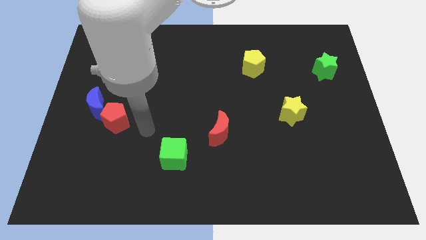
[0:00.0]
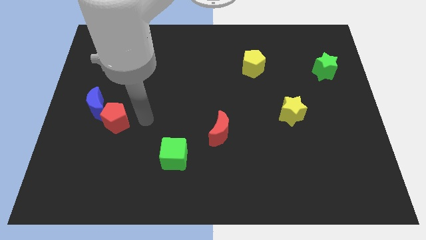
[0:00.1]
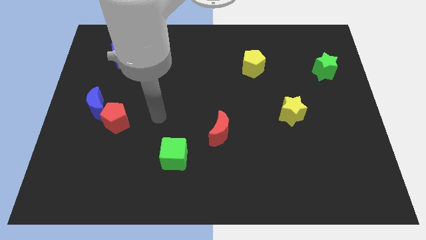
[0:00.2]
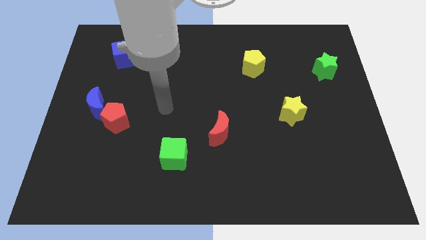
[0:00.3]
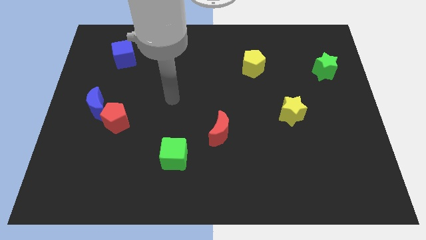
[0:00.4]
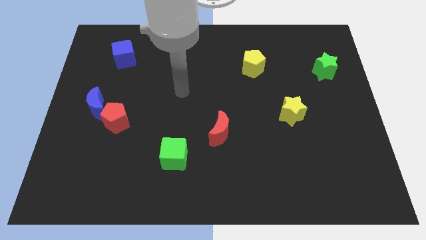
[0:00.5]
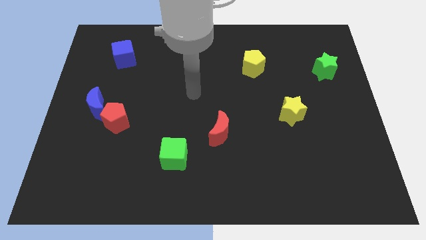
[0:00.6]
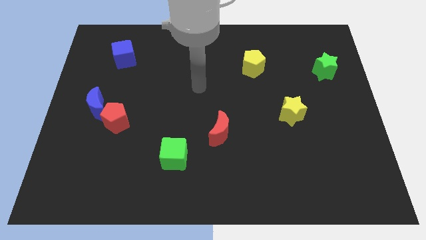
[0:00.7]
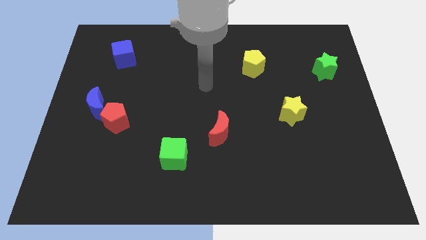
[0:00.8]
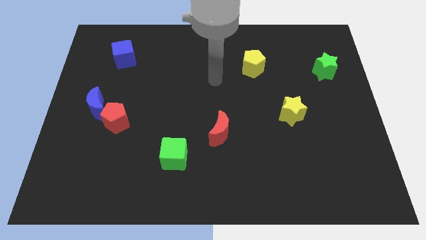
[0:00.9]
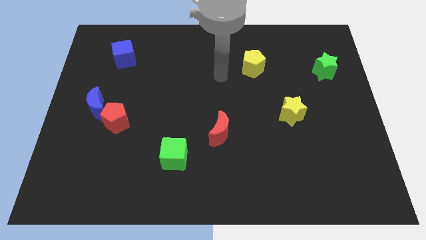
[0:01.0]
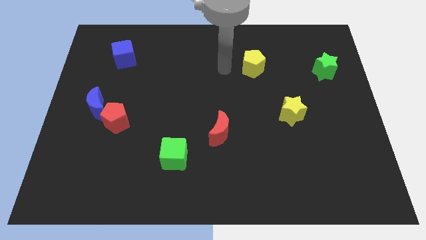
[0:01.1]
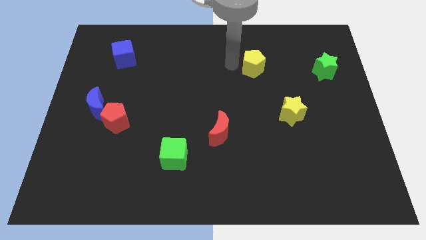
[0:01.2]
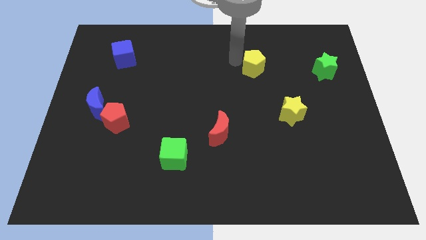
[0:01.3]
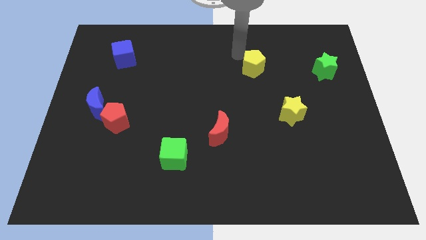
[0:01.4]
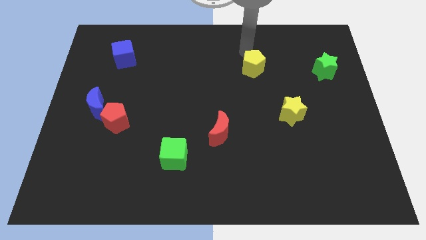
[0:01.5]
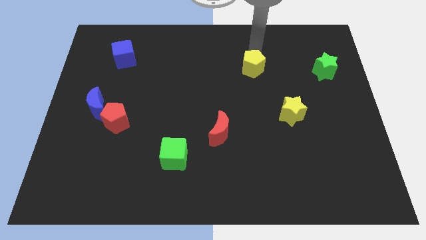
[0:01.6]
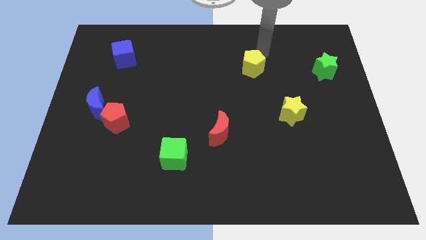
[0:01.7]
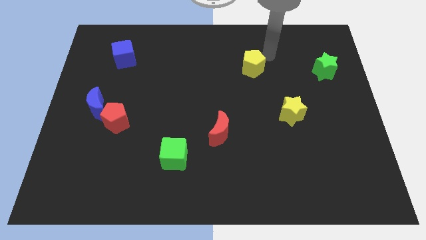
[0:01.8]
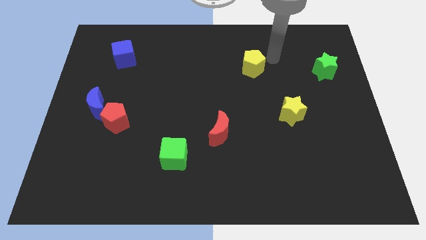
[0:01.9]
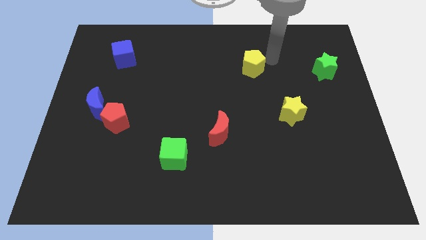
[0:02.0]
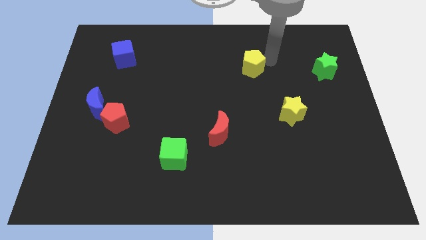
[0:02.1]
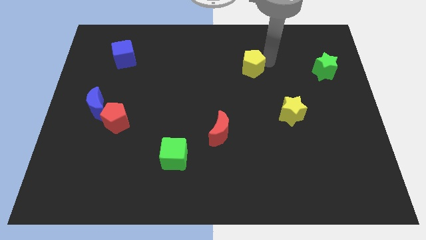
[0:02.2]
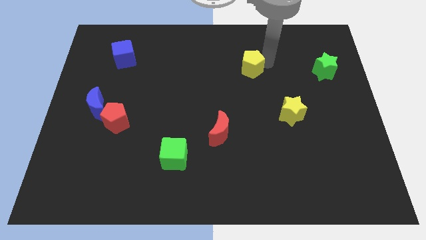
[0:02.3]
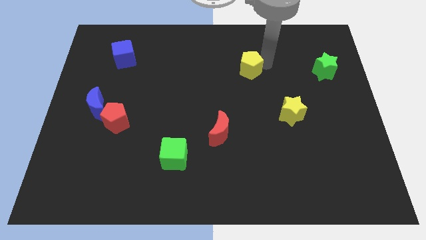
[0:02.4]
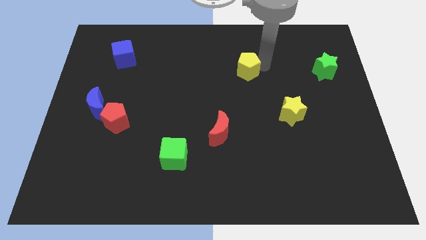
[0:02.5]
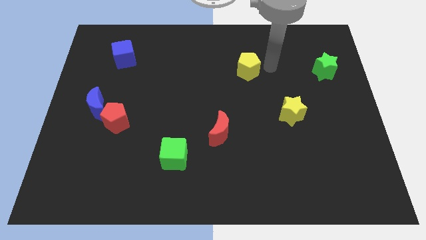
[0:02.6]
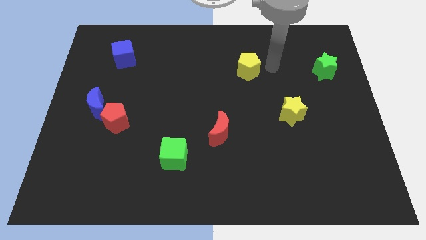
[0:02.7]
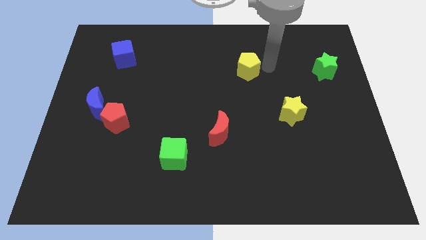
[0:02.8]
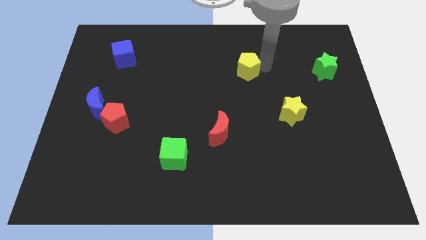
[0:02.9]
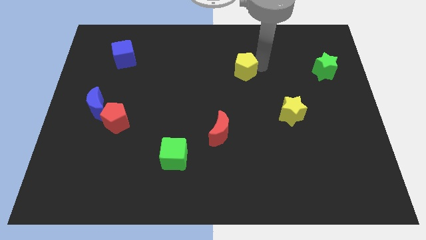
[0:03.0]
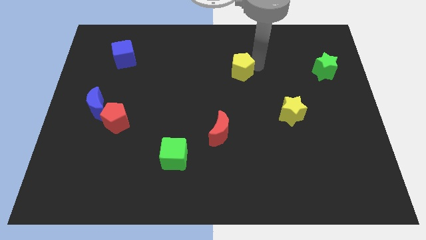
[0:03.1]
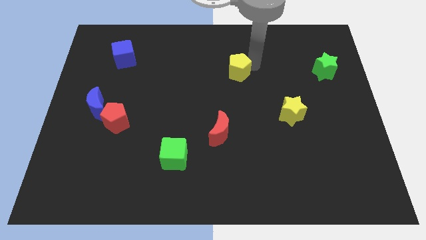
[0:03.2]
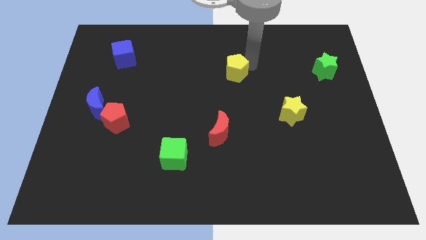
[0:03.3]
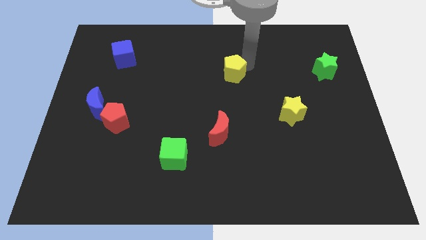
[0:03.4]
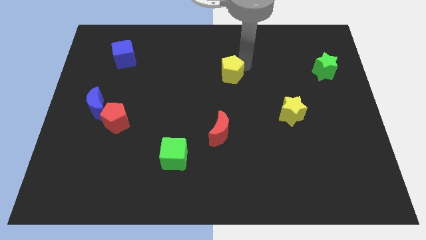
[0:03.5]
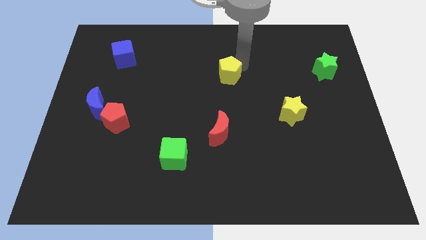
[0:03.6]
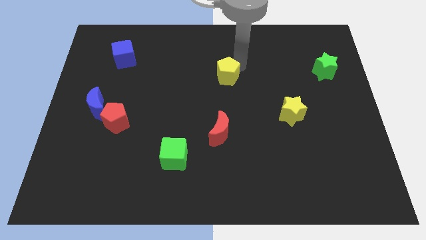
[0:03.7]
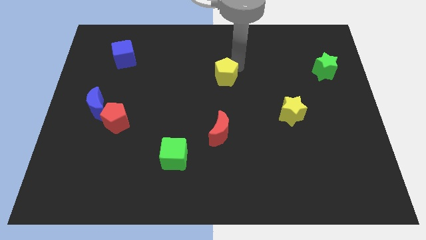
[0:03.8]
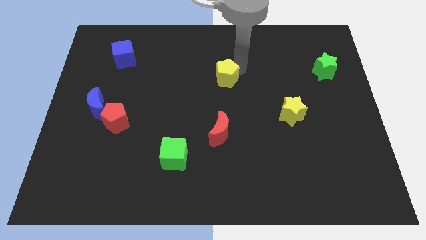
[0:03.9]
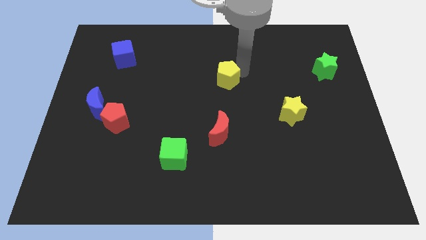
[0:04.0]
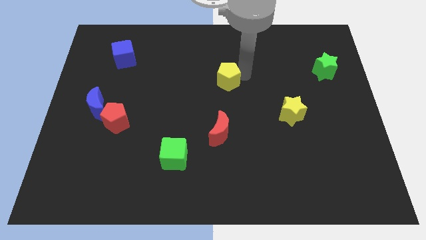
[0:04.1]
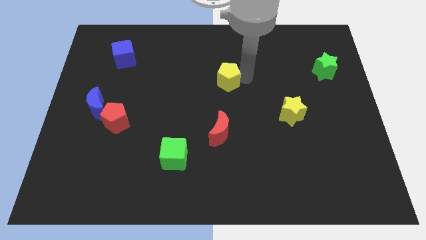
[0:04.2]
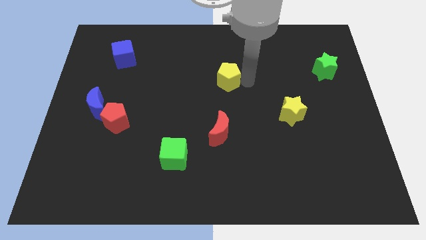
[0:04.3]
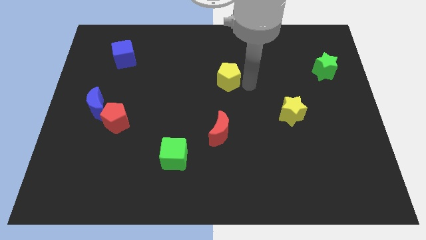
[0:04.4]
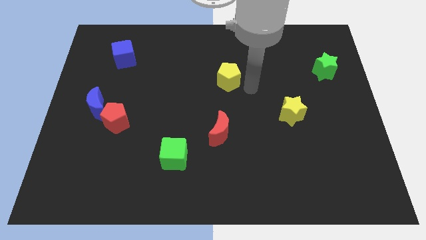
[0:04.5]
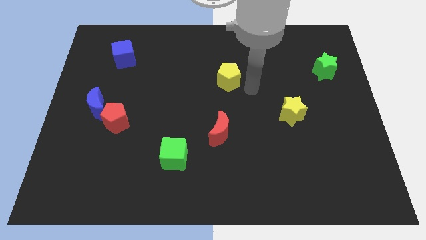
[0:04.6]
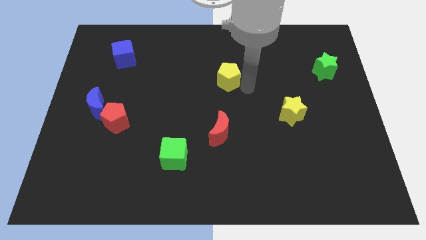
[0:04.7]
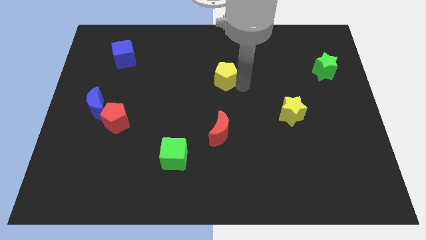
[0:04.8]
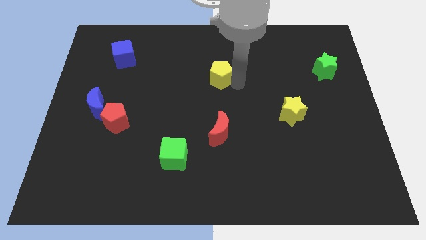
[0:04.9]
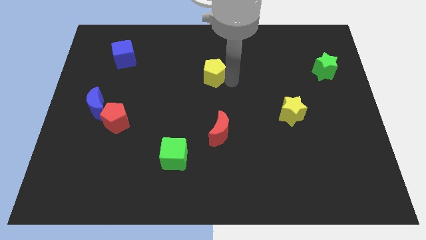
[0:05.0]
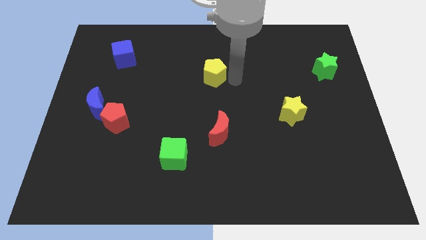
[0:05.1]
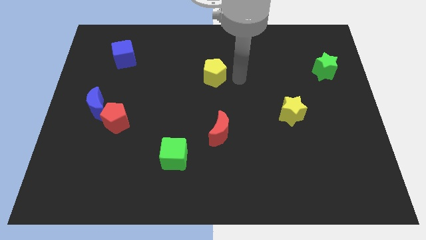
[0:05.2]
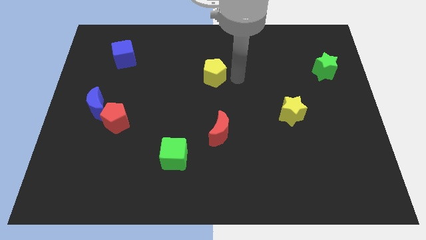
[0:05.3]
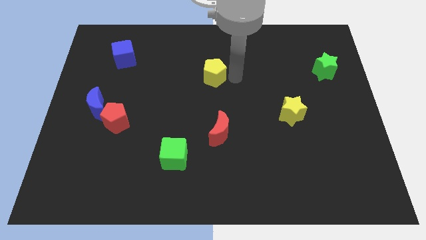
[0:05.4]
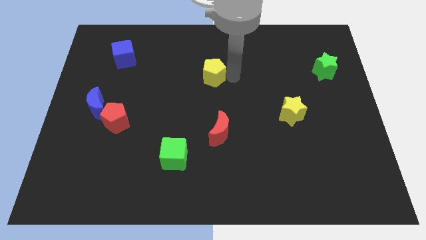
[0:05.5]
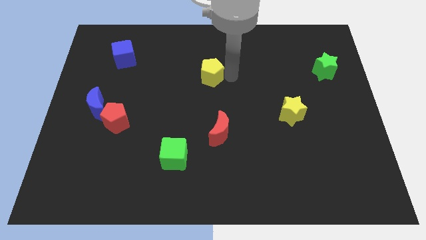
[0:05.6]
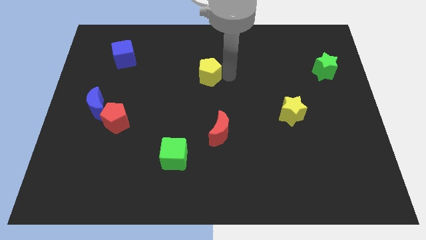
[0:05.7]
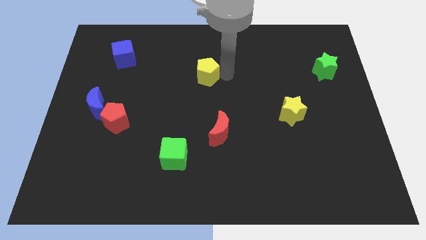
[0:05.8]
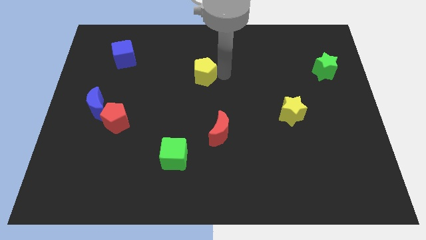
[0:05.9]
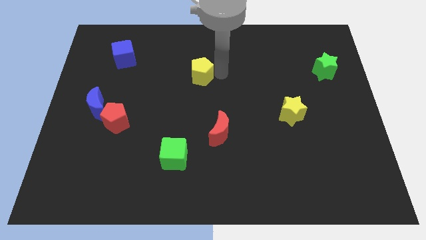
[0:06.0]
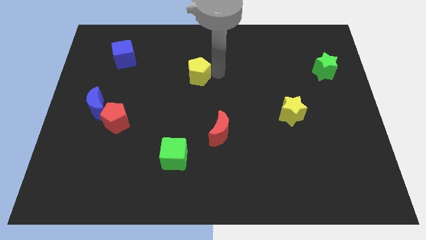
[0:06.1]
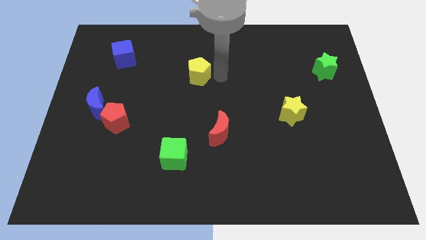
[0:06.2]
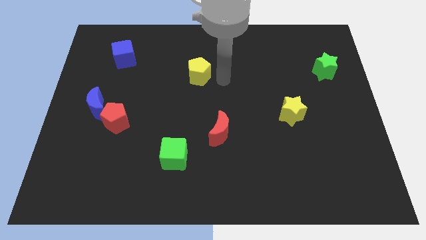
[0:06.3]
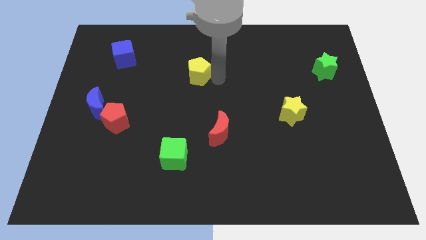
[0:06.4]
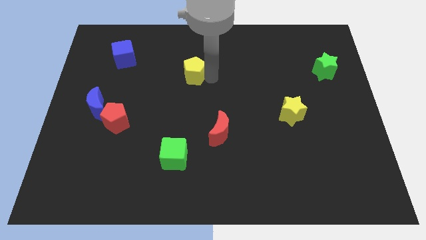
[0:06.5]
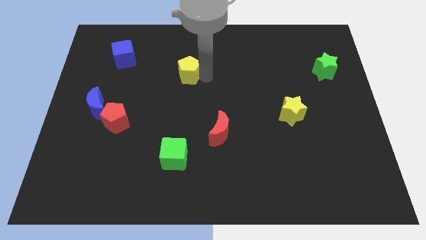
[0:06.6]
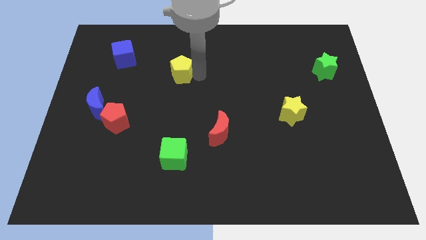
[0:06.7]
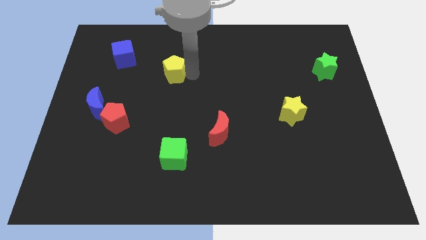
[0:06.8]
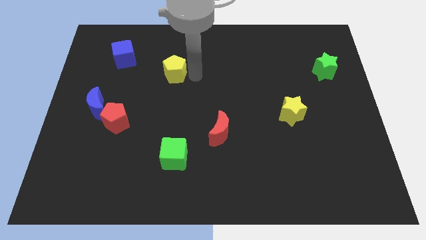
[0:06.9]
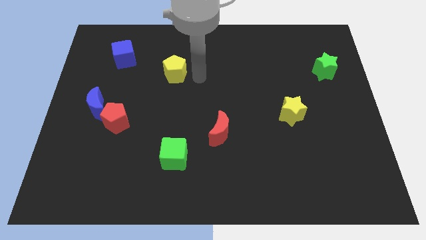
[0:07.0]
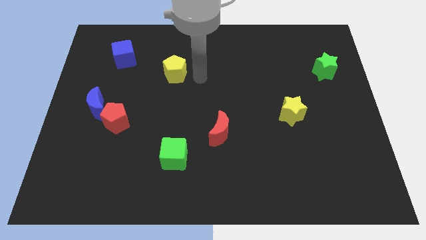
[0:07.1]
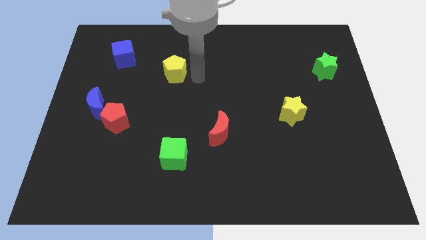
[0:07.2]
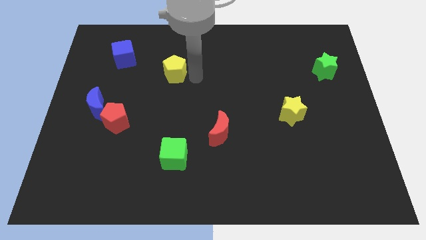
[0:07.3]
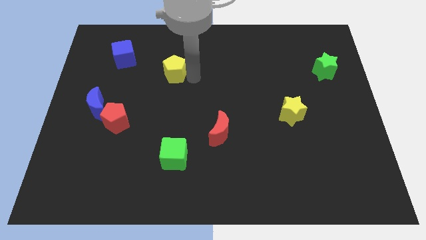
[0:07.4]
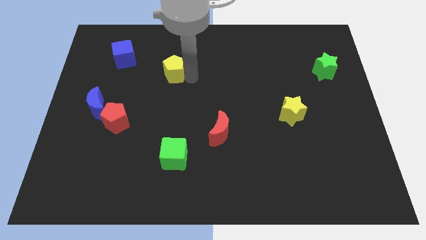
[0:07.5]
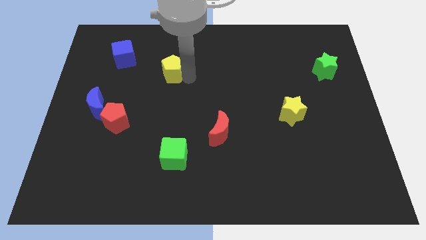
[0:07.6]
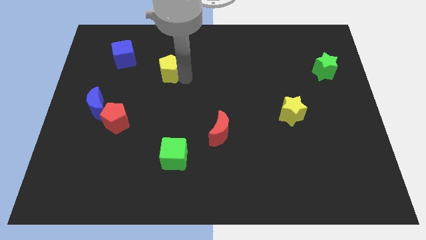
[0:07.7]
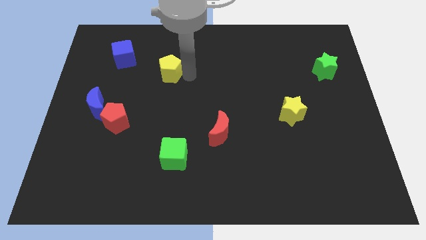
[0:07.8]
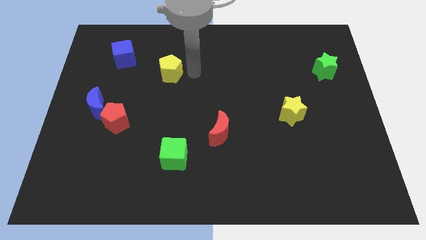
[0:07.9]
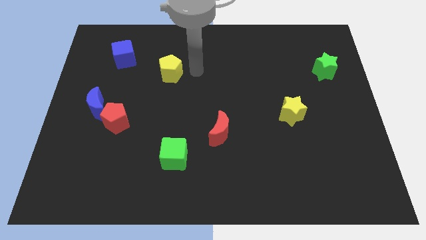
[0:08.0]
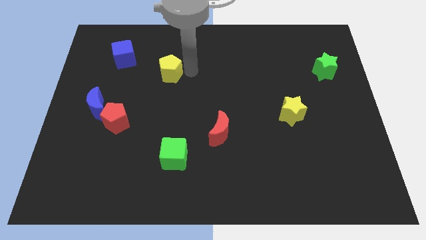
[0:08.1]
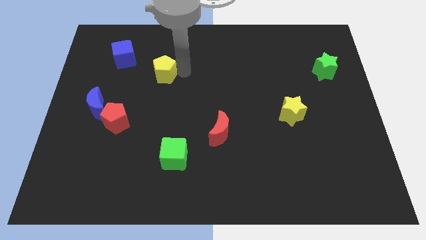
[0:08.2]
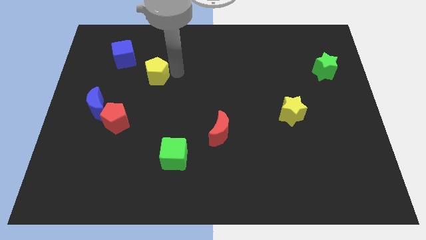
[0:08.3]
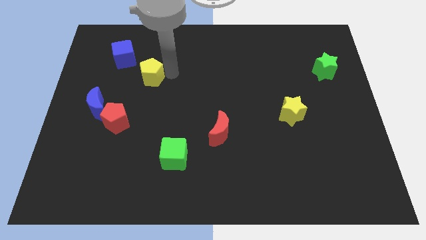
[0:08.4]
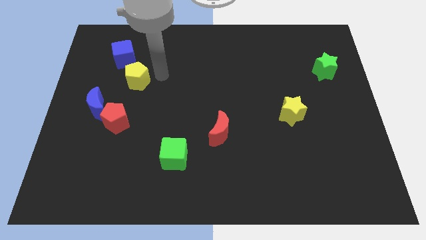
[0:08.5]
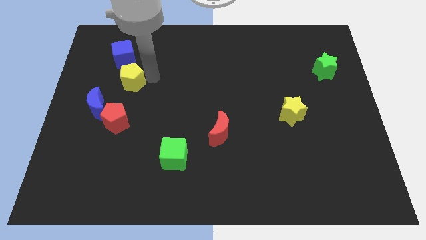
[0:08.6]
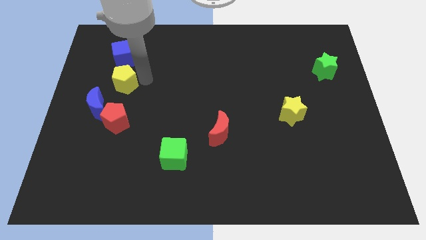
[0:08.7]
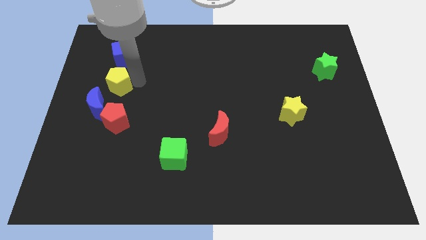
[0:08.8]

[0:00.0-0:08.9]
push the yellow pentagon to the top side of the blue moon
